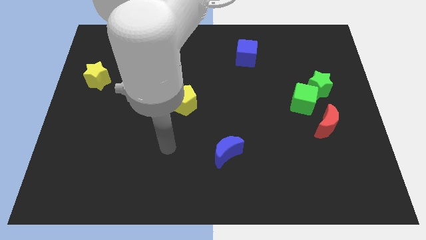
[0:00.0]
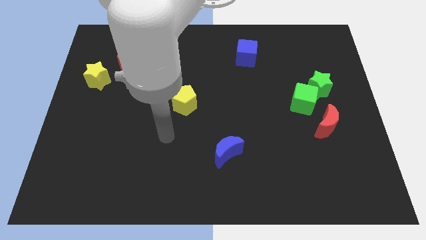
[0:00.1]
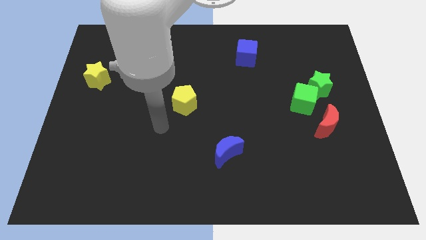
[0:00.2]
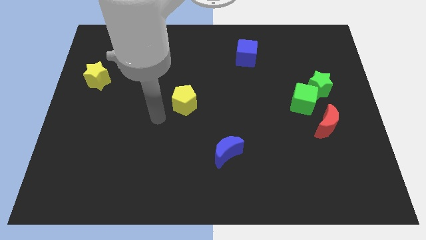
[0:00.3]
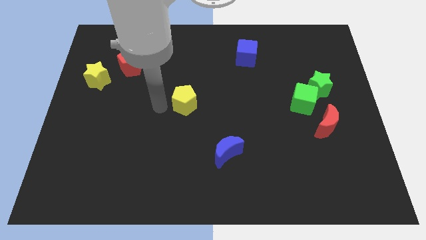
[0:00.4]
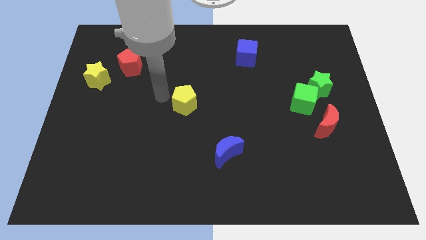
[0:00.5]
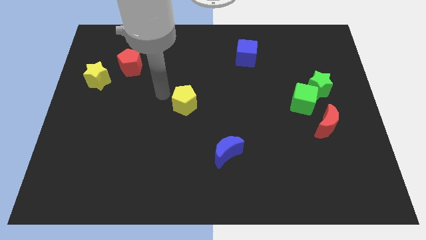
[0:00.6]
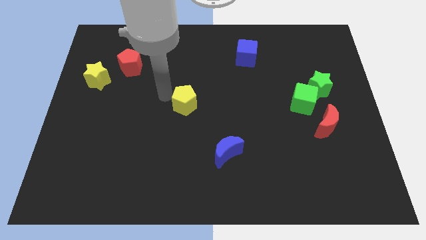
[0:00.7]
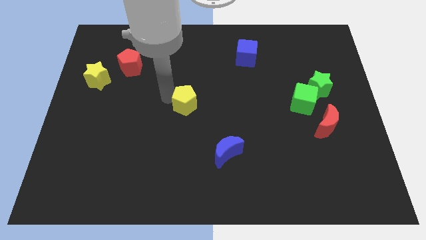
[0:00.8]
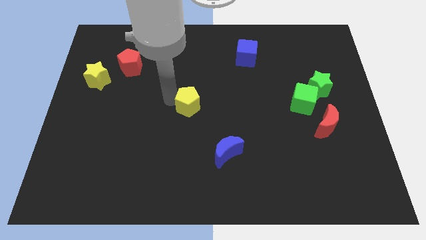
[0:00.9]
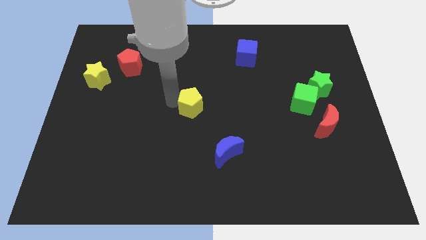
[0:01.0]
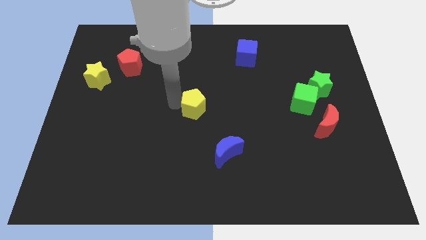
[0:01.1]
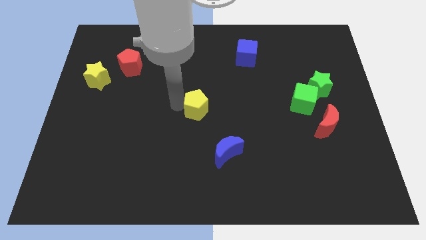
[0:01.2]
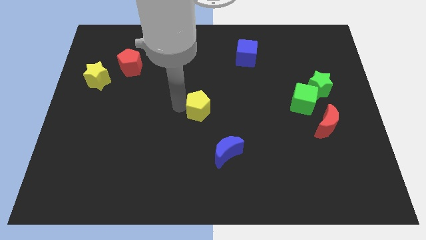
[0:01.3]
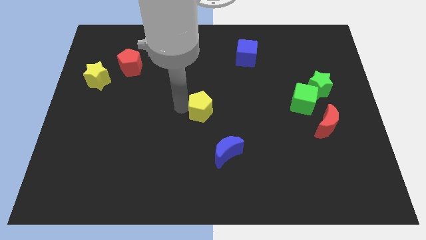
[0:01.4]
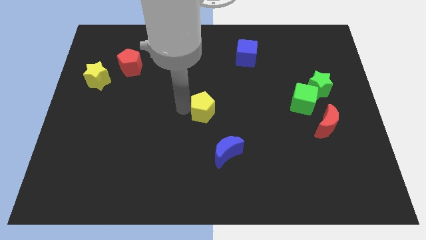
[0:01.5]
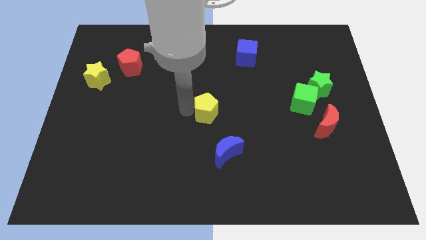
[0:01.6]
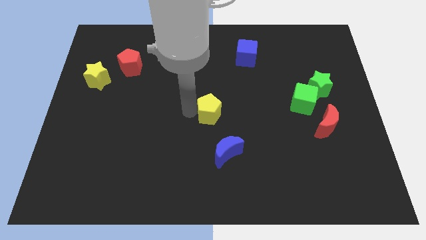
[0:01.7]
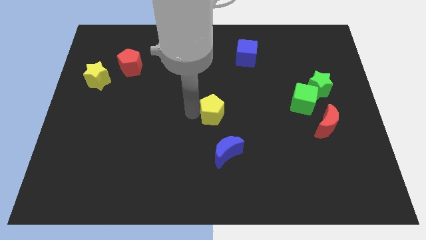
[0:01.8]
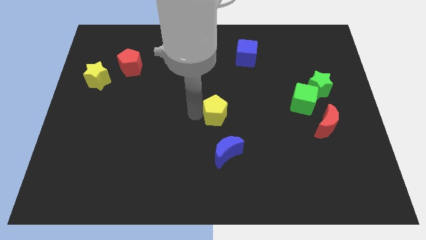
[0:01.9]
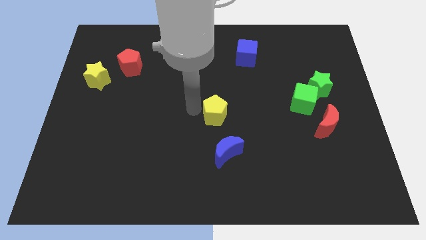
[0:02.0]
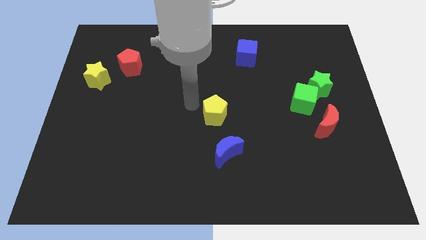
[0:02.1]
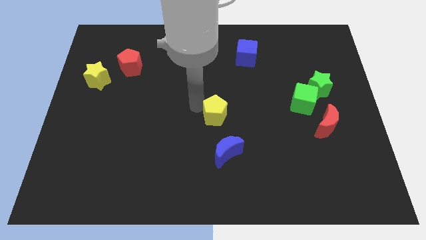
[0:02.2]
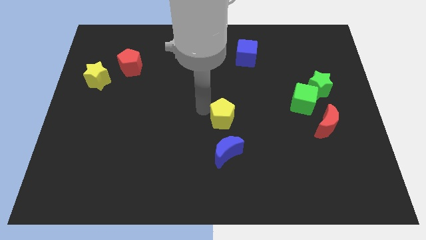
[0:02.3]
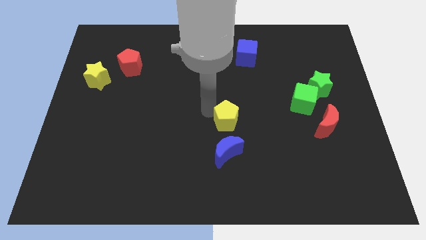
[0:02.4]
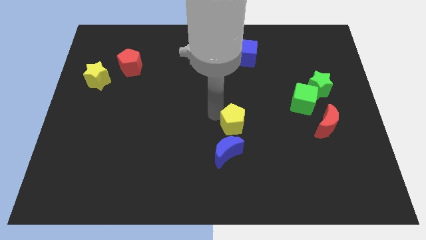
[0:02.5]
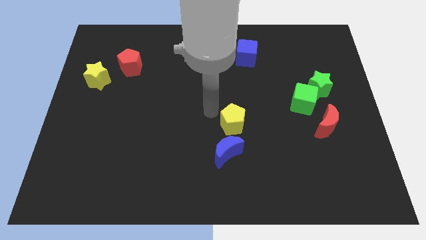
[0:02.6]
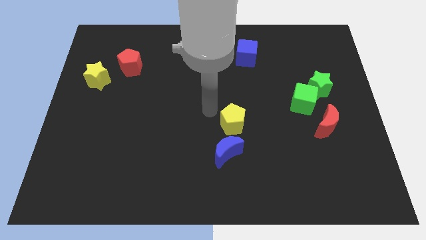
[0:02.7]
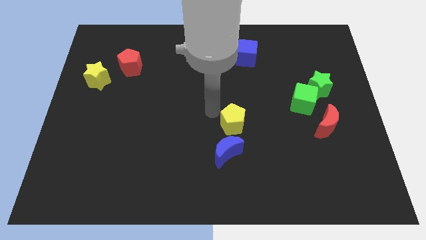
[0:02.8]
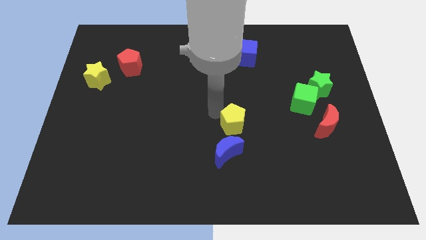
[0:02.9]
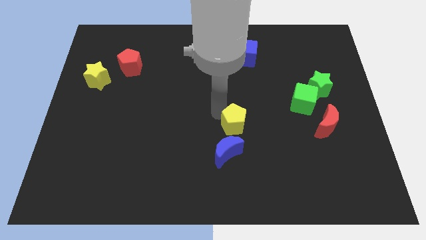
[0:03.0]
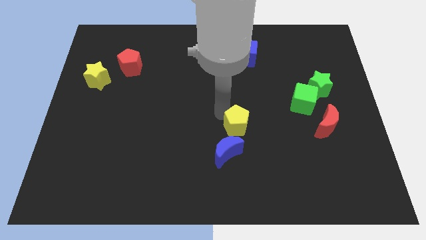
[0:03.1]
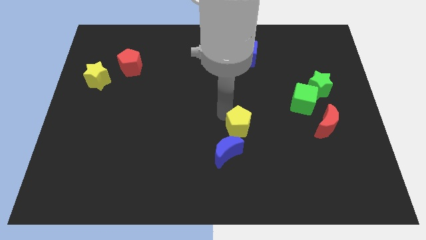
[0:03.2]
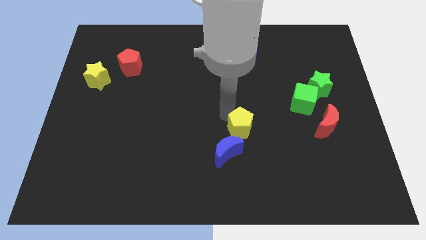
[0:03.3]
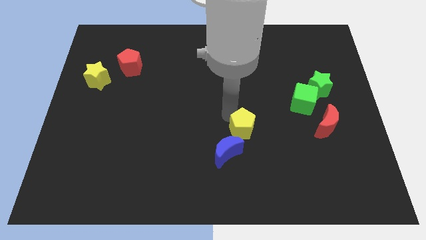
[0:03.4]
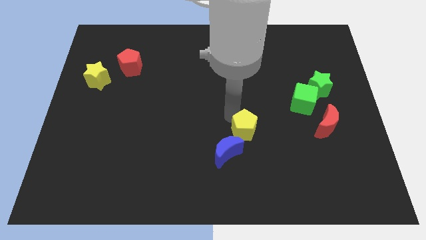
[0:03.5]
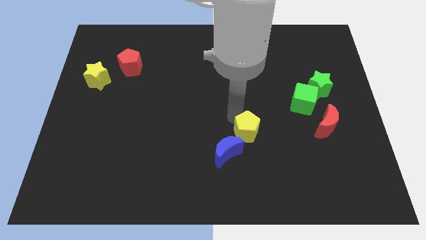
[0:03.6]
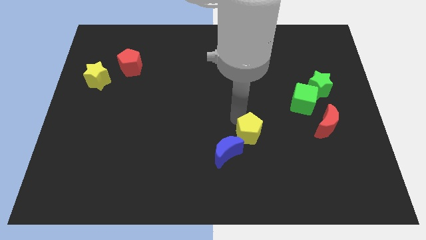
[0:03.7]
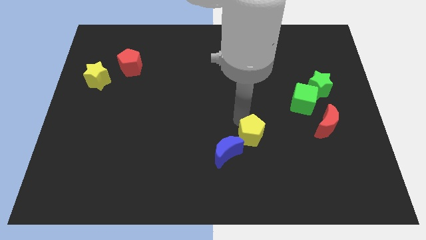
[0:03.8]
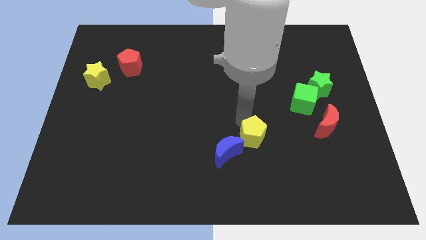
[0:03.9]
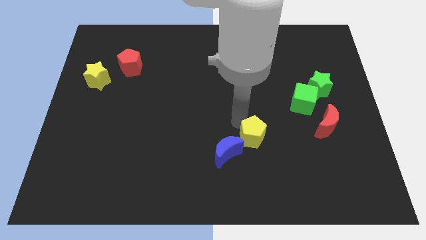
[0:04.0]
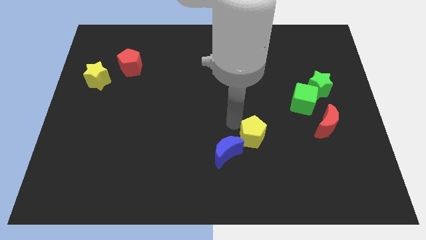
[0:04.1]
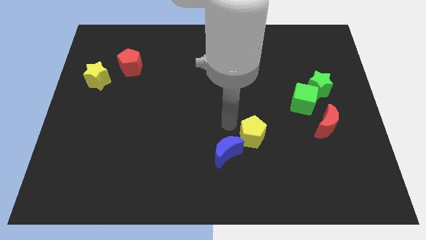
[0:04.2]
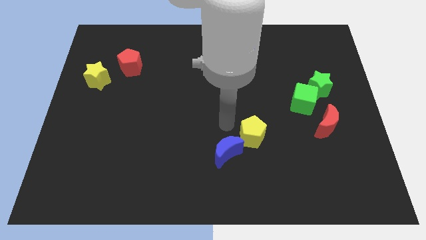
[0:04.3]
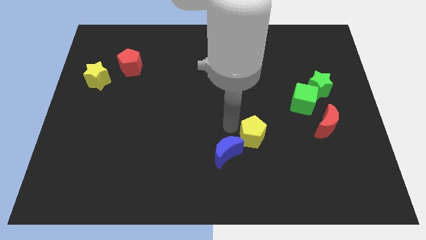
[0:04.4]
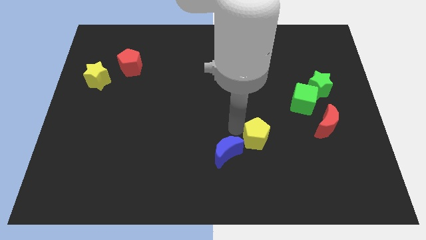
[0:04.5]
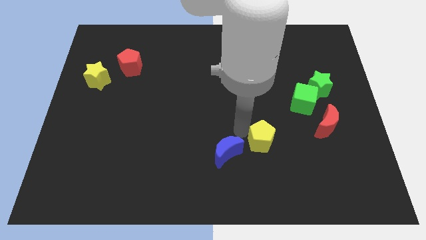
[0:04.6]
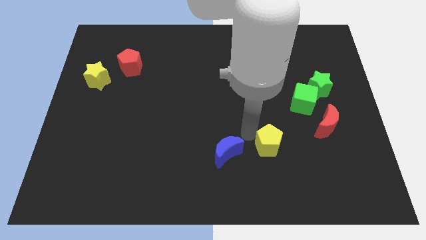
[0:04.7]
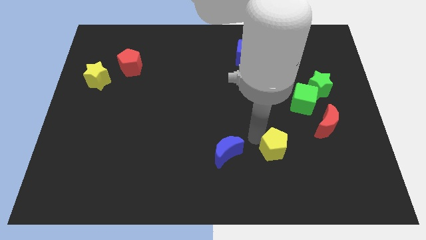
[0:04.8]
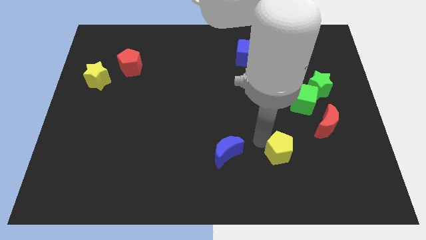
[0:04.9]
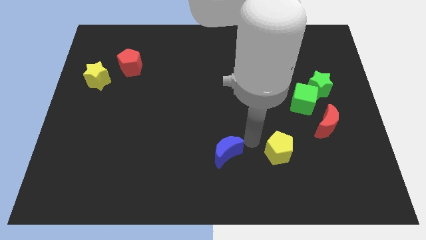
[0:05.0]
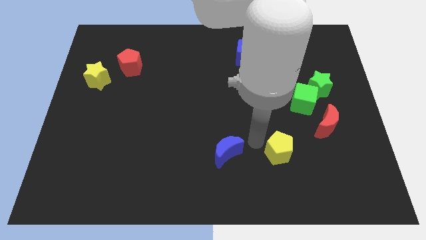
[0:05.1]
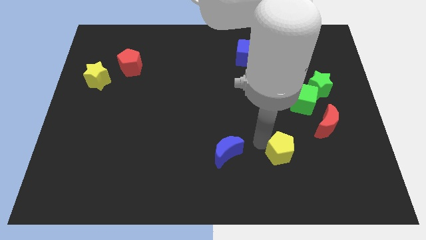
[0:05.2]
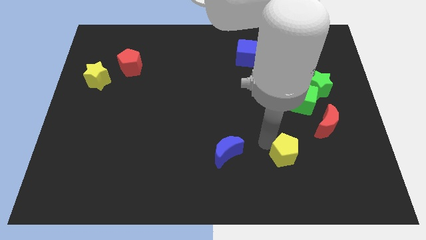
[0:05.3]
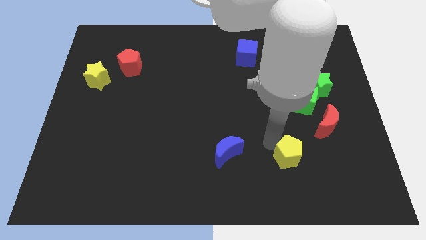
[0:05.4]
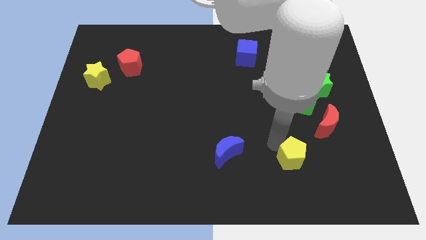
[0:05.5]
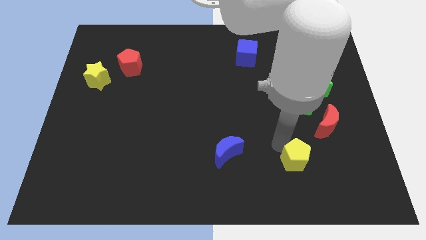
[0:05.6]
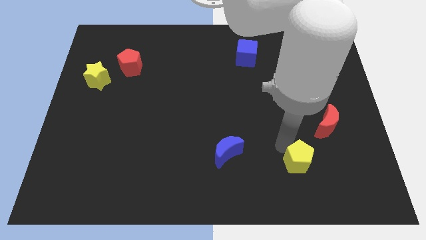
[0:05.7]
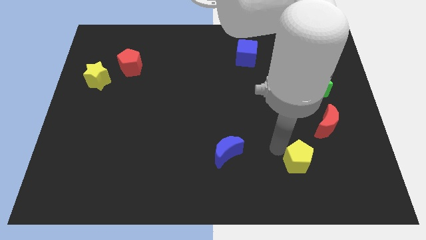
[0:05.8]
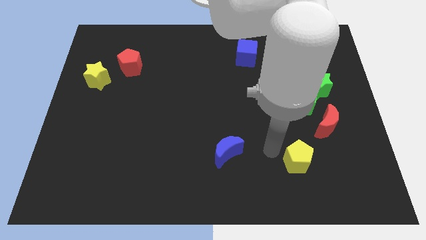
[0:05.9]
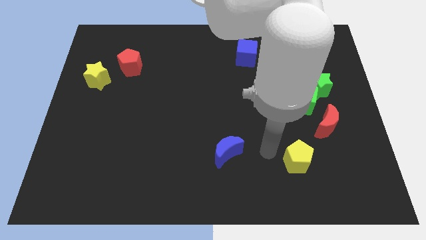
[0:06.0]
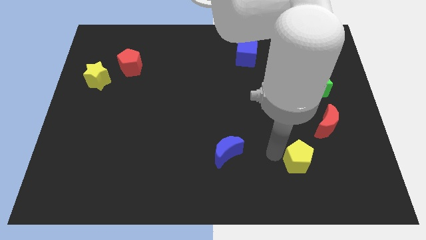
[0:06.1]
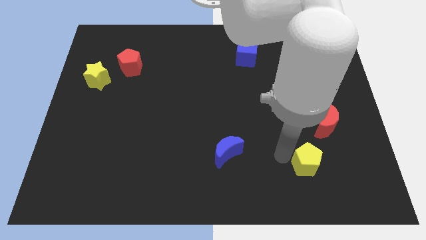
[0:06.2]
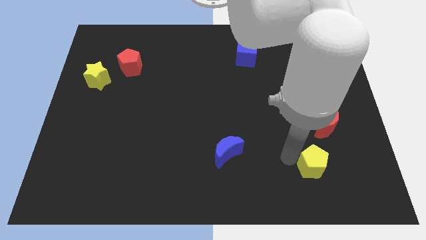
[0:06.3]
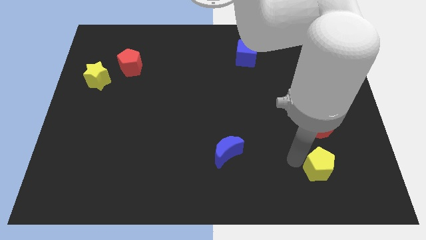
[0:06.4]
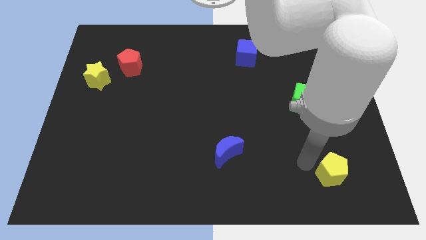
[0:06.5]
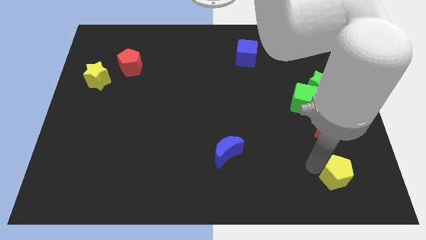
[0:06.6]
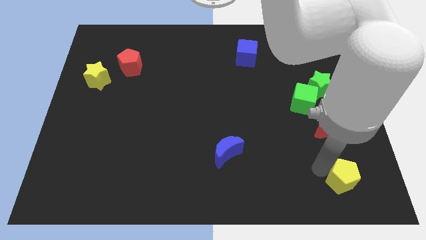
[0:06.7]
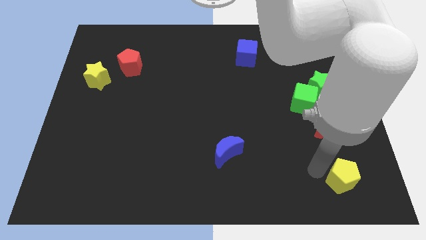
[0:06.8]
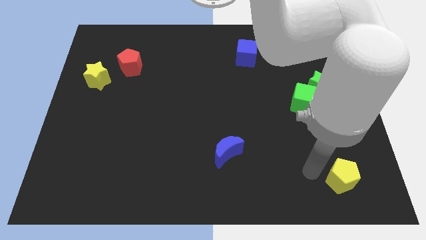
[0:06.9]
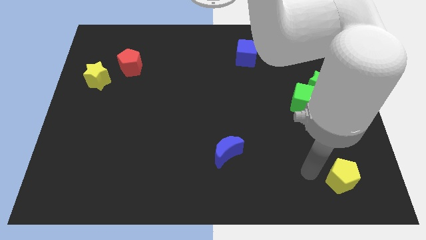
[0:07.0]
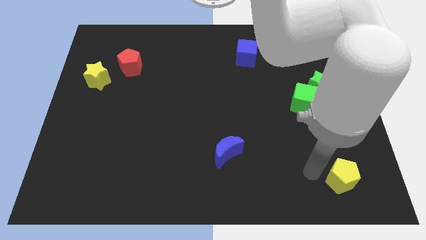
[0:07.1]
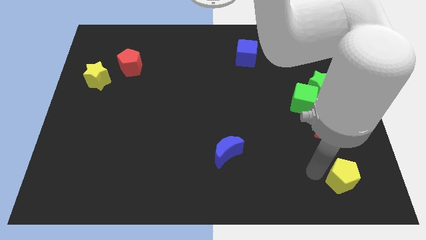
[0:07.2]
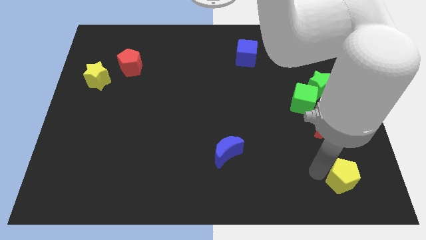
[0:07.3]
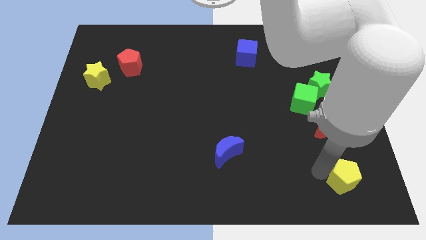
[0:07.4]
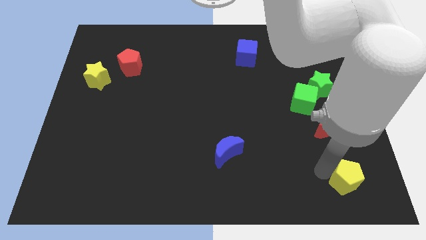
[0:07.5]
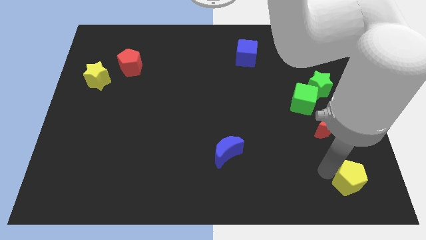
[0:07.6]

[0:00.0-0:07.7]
push the yellow pentagon to the bottom right
